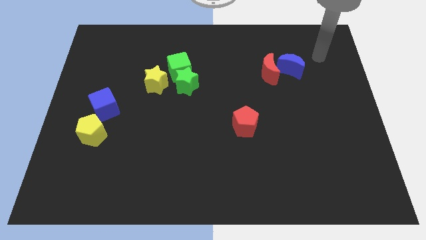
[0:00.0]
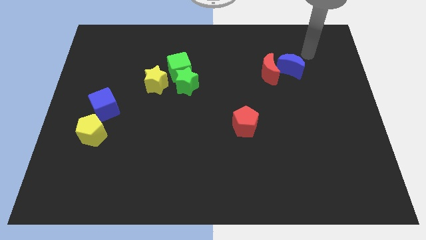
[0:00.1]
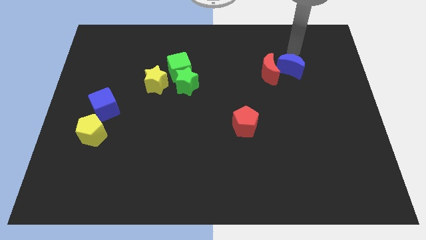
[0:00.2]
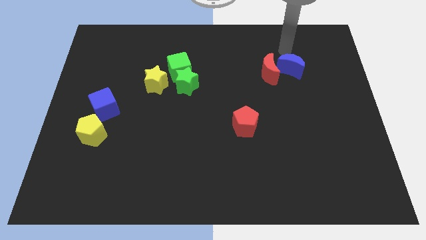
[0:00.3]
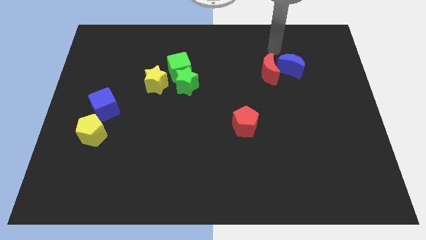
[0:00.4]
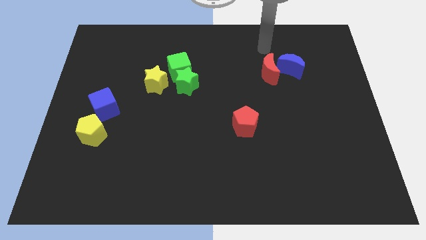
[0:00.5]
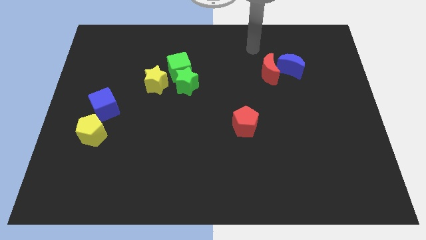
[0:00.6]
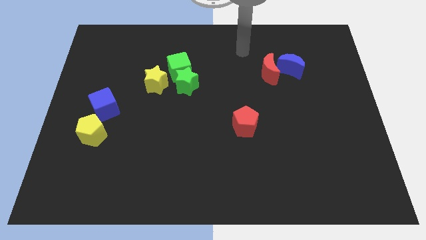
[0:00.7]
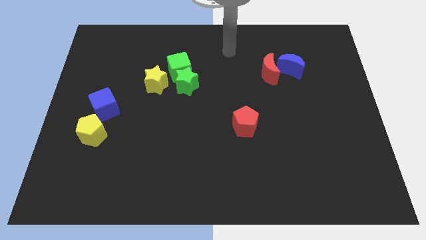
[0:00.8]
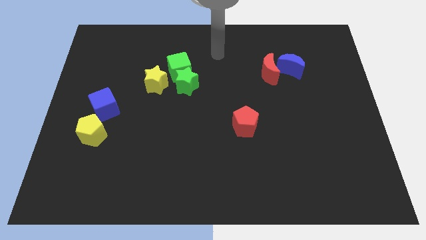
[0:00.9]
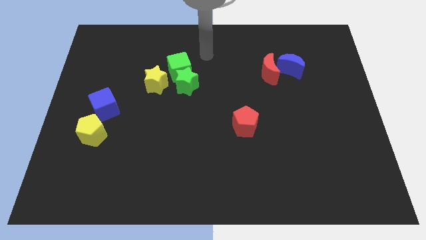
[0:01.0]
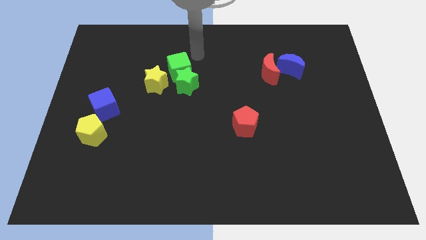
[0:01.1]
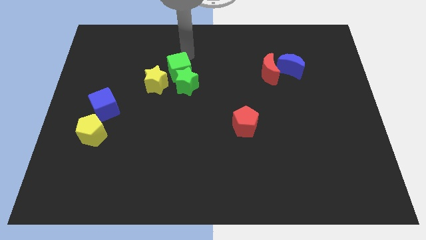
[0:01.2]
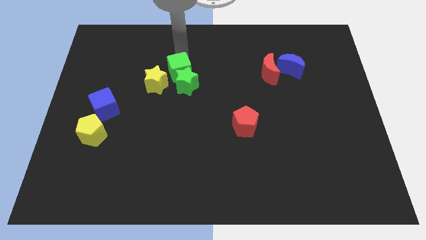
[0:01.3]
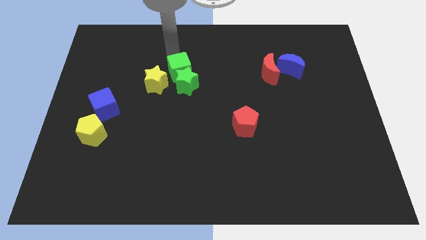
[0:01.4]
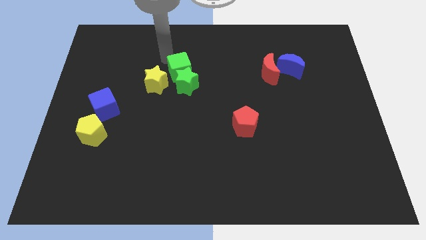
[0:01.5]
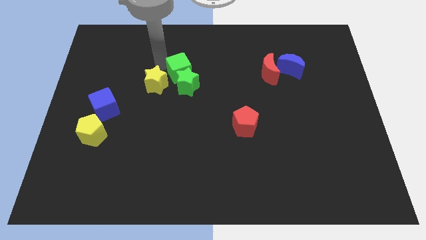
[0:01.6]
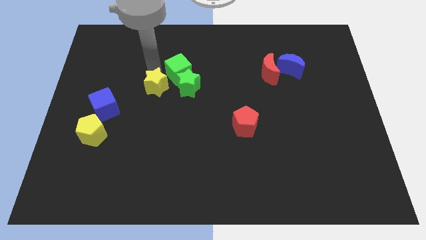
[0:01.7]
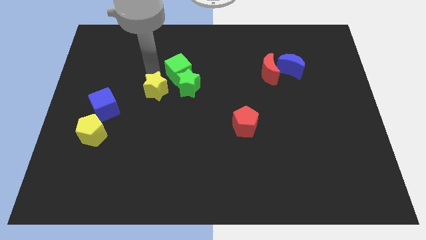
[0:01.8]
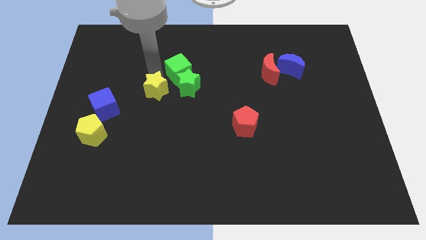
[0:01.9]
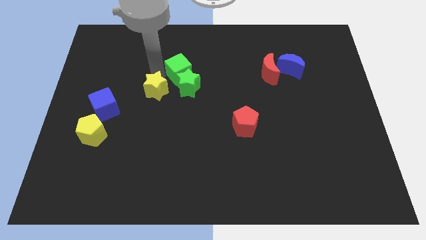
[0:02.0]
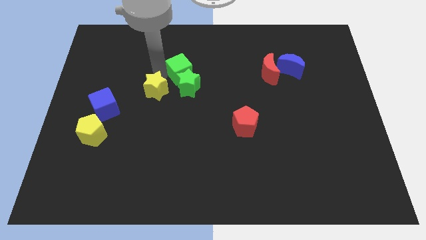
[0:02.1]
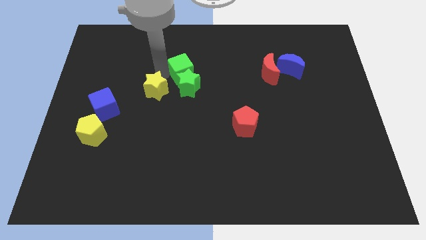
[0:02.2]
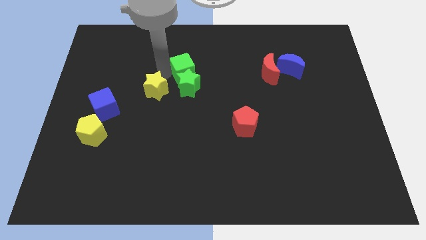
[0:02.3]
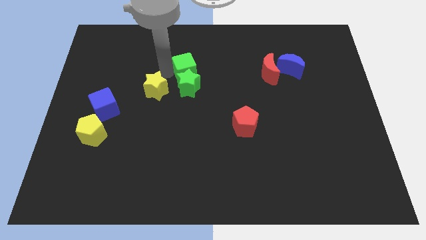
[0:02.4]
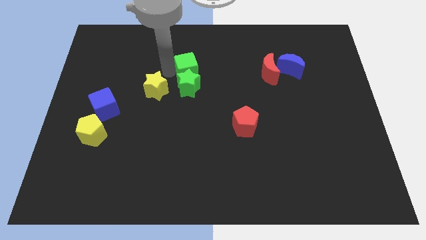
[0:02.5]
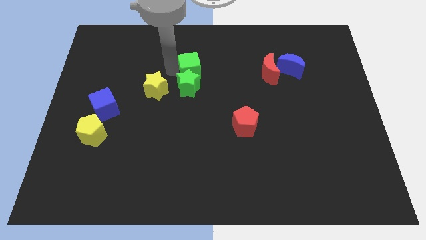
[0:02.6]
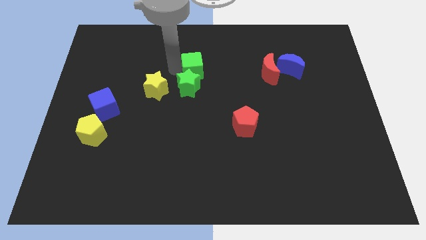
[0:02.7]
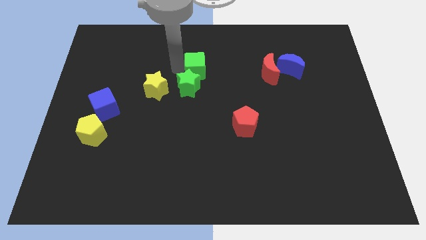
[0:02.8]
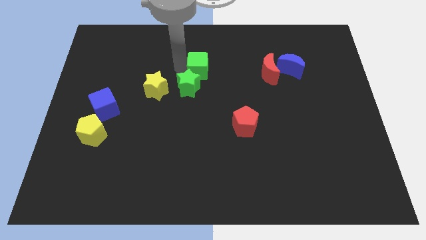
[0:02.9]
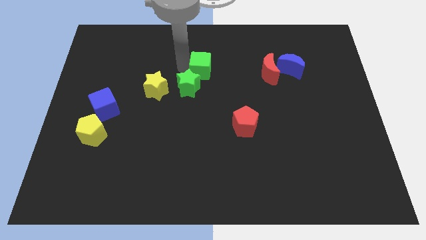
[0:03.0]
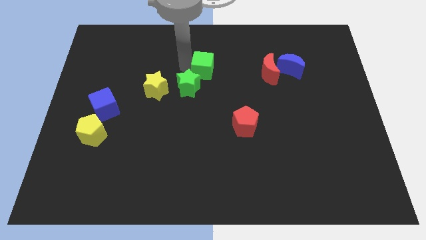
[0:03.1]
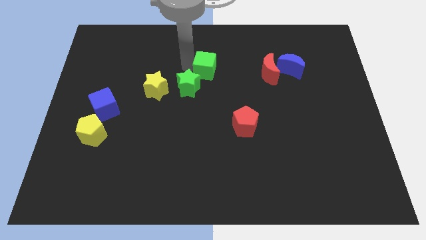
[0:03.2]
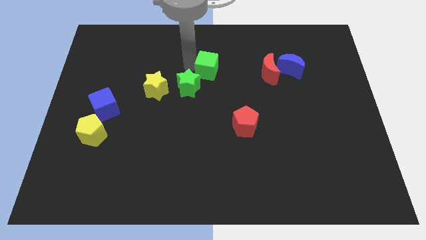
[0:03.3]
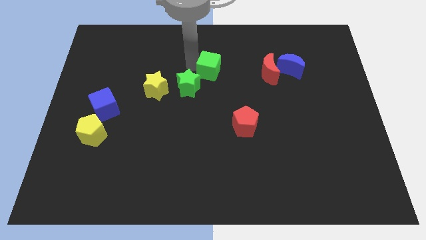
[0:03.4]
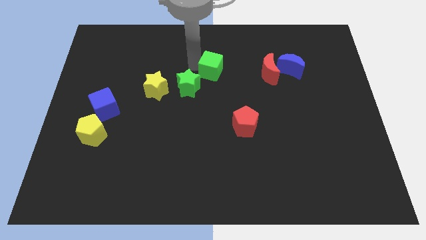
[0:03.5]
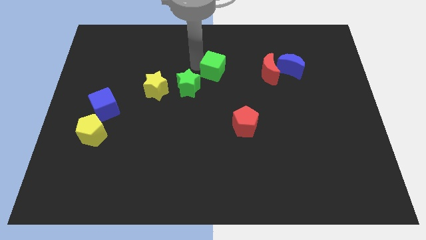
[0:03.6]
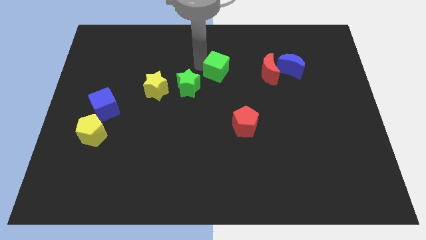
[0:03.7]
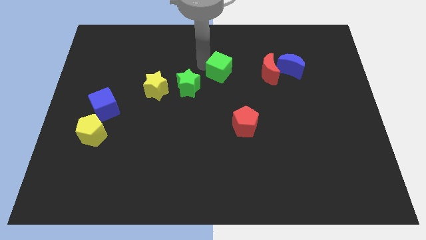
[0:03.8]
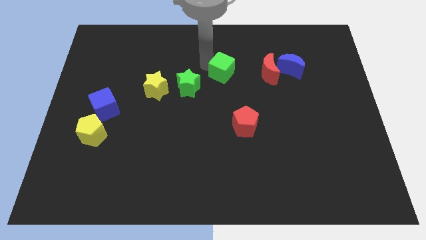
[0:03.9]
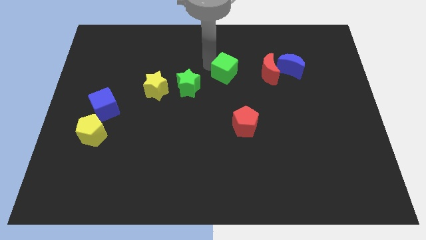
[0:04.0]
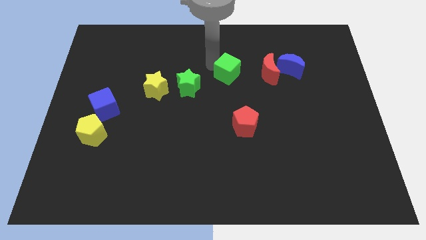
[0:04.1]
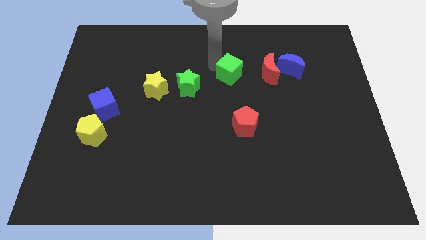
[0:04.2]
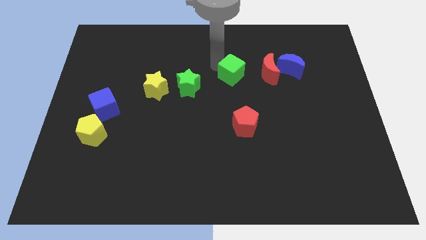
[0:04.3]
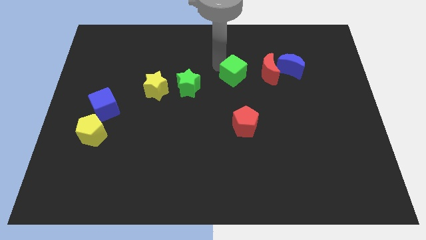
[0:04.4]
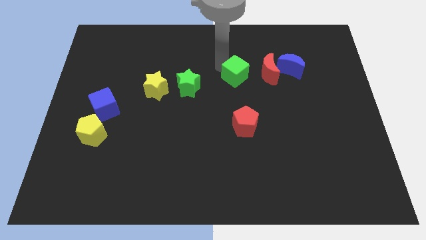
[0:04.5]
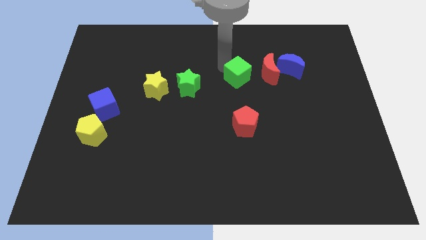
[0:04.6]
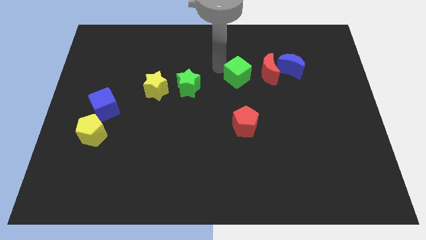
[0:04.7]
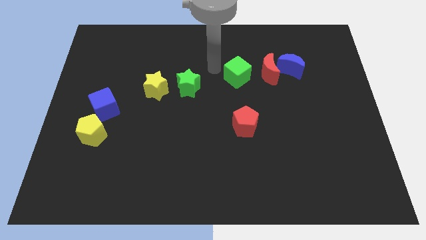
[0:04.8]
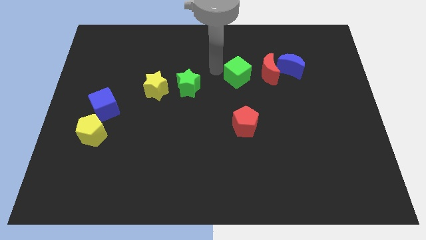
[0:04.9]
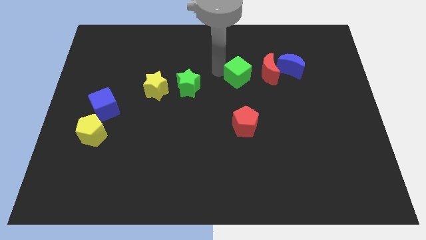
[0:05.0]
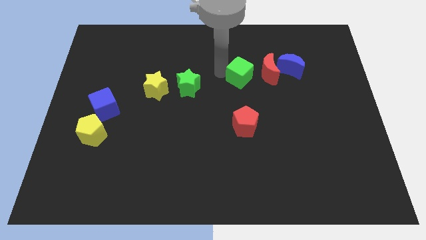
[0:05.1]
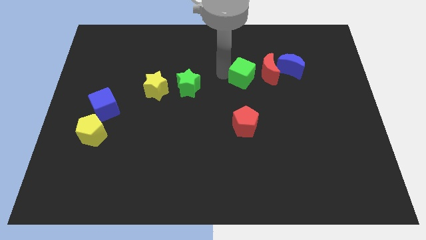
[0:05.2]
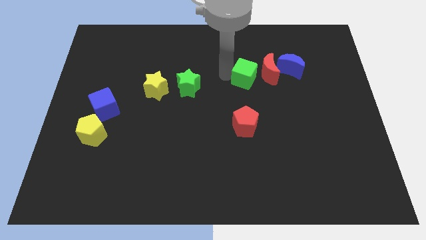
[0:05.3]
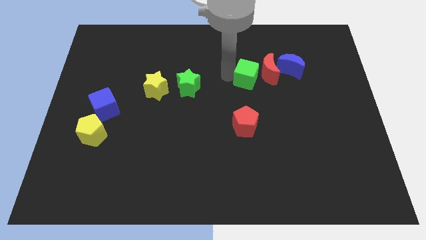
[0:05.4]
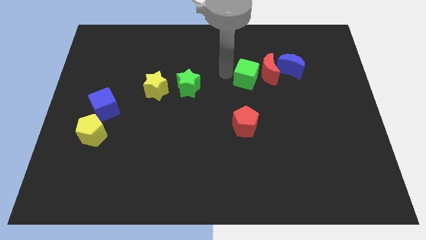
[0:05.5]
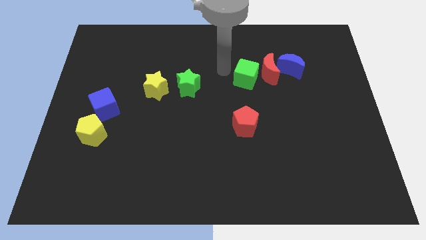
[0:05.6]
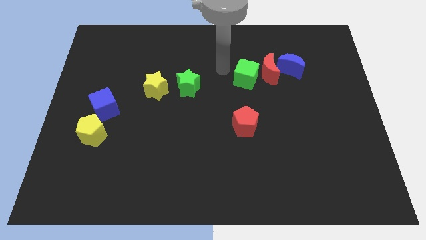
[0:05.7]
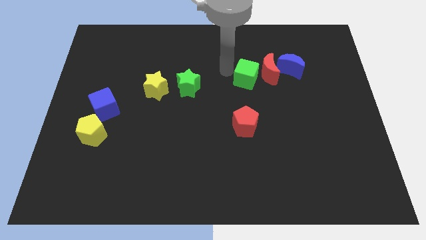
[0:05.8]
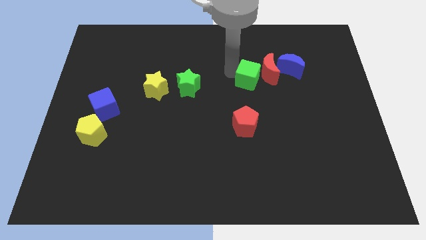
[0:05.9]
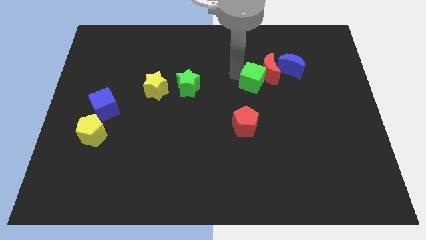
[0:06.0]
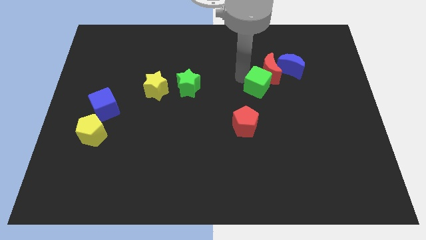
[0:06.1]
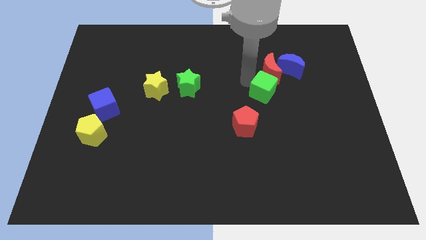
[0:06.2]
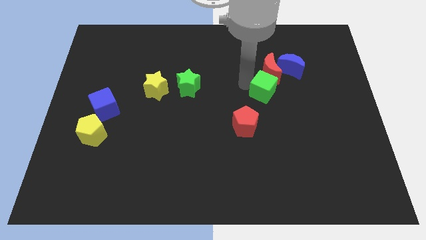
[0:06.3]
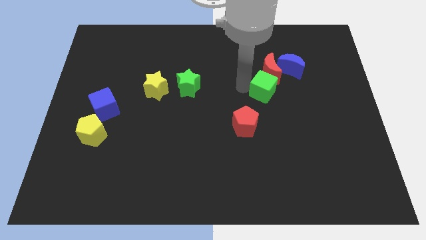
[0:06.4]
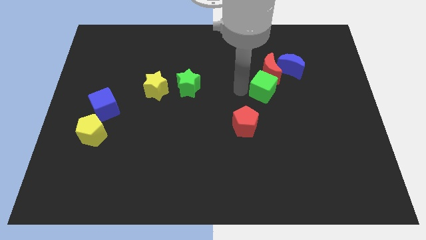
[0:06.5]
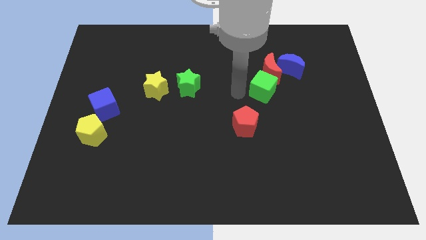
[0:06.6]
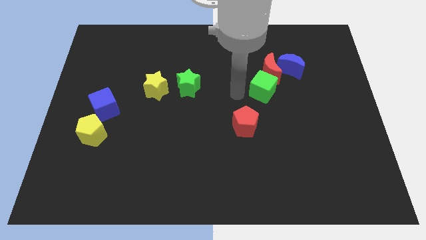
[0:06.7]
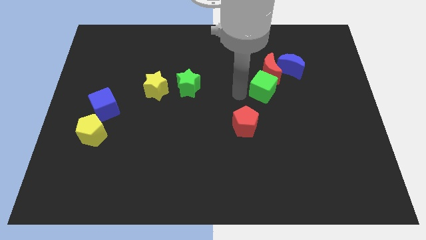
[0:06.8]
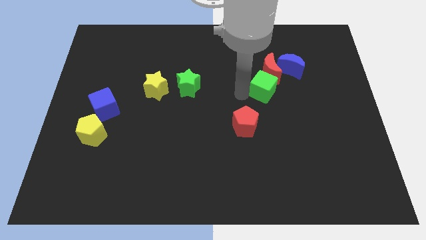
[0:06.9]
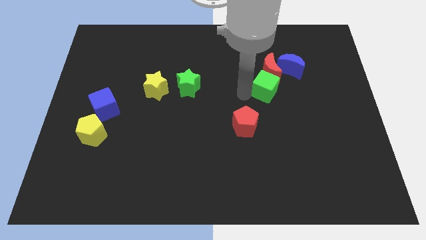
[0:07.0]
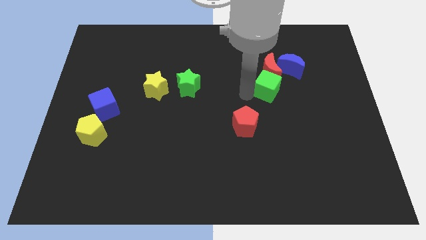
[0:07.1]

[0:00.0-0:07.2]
slide the green cube to the right

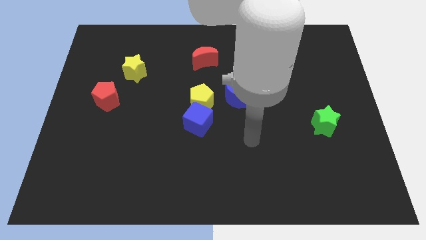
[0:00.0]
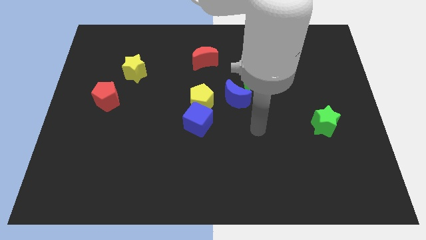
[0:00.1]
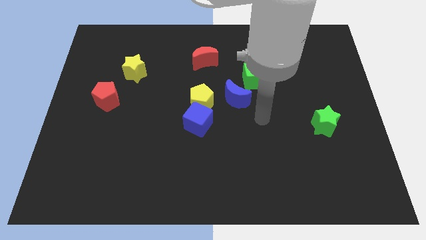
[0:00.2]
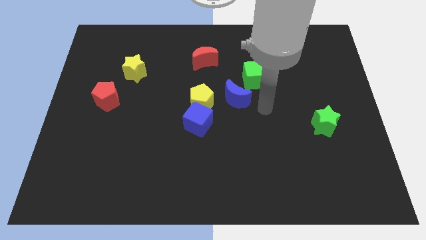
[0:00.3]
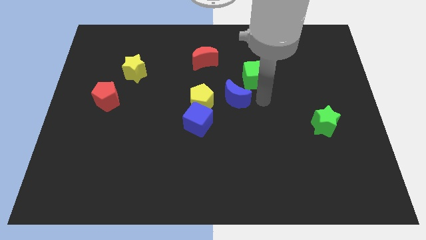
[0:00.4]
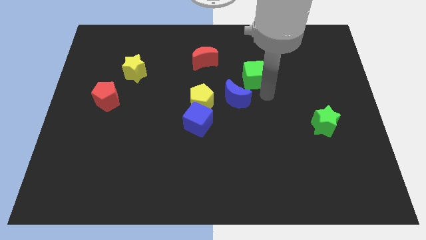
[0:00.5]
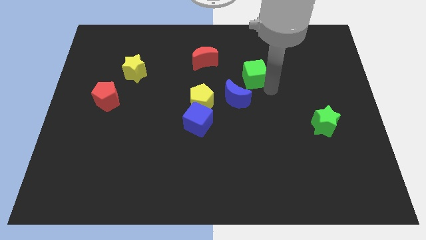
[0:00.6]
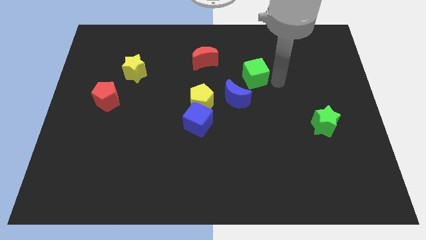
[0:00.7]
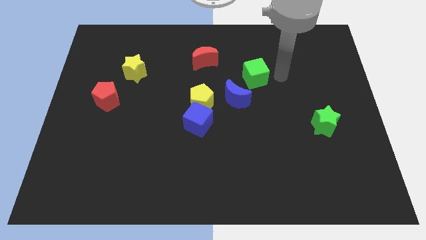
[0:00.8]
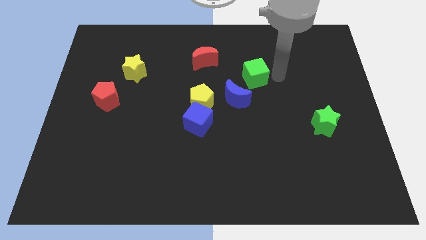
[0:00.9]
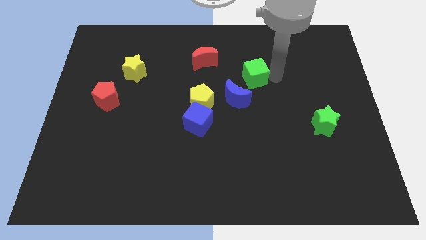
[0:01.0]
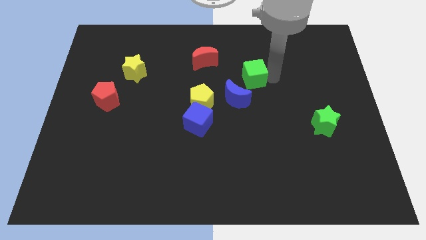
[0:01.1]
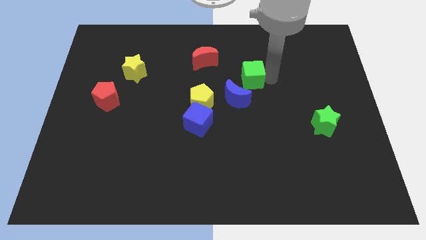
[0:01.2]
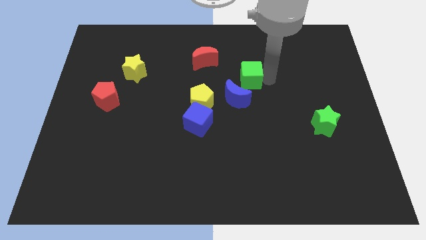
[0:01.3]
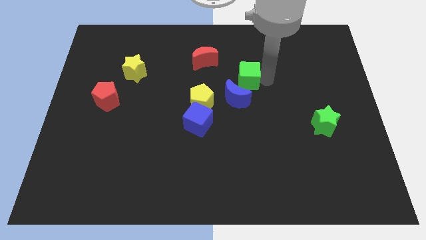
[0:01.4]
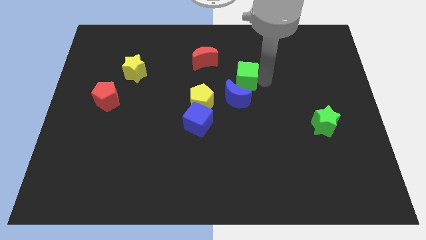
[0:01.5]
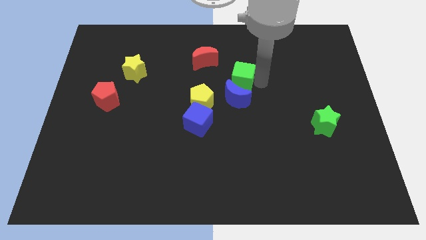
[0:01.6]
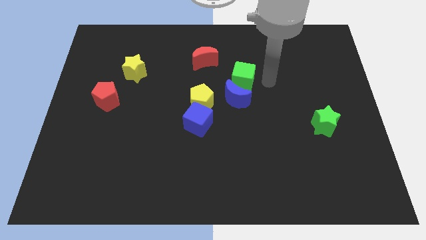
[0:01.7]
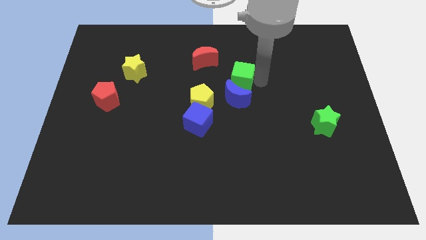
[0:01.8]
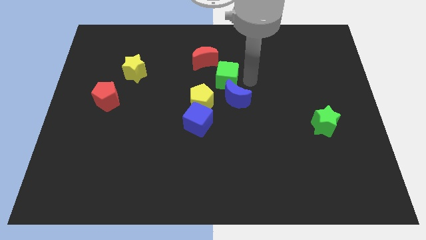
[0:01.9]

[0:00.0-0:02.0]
push the green cube to the left a bit
